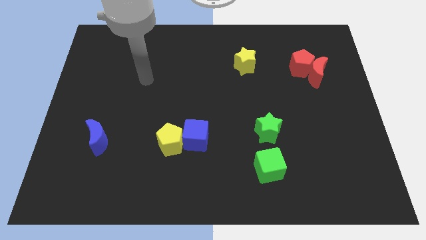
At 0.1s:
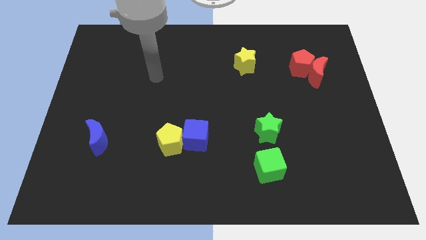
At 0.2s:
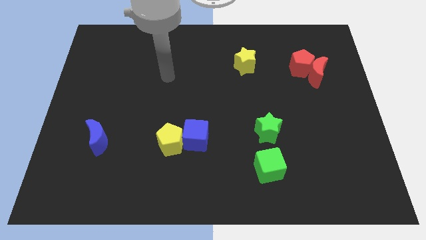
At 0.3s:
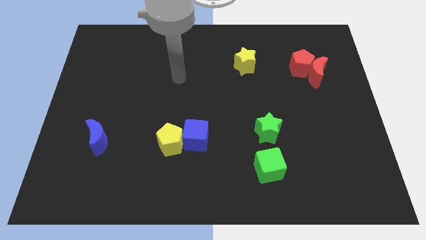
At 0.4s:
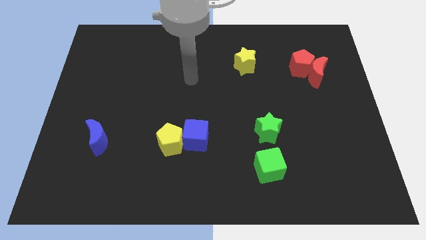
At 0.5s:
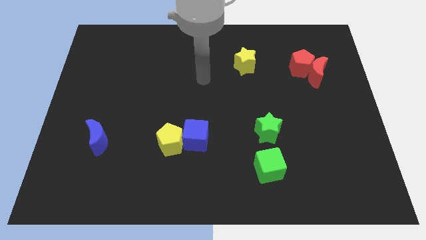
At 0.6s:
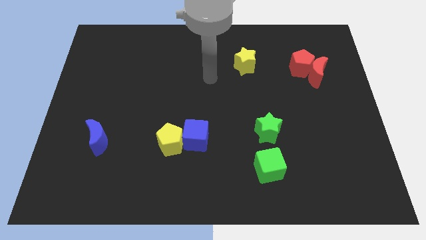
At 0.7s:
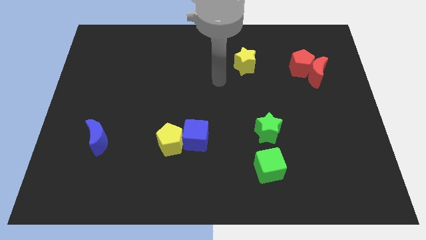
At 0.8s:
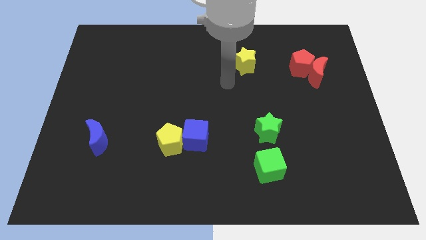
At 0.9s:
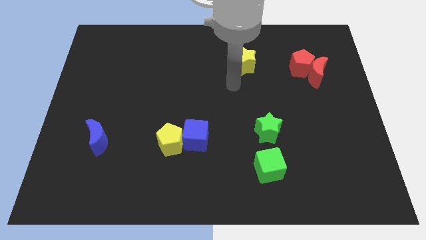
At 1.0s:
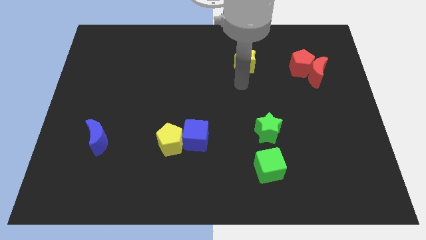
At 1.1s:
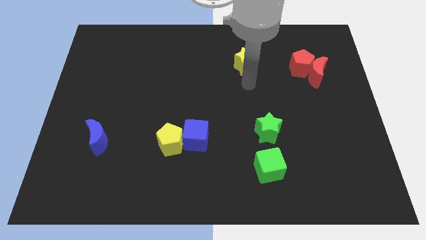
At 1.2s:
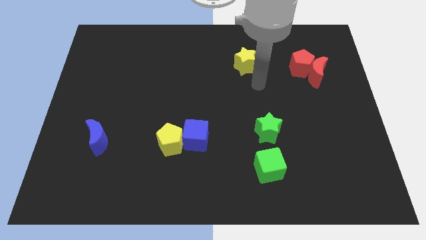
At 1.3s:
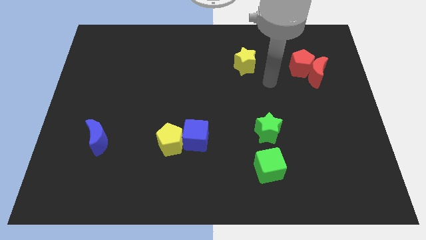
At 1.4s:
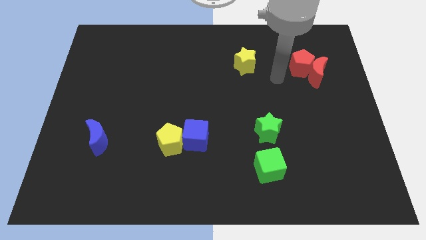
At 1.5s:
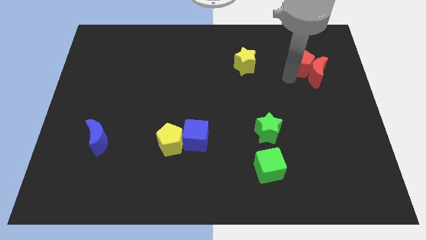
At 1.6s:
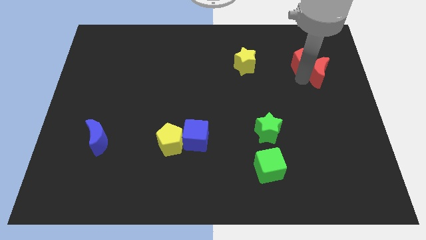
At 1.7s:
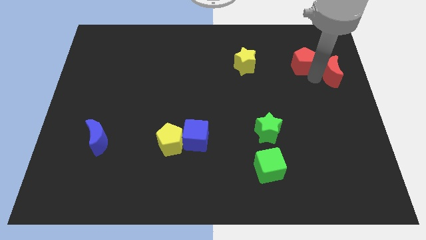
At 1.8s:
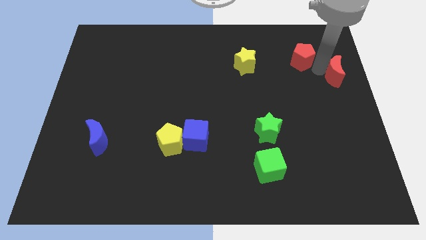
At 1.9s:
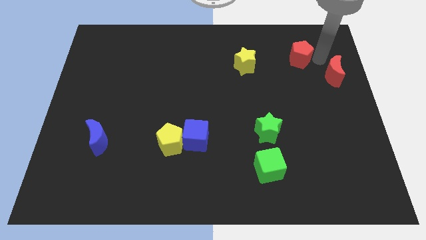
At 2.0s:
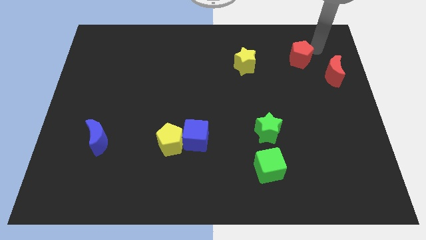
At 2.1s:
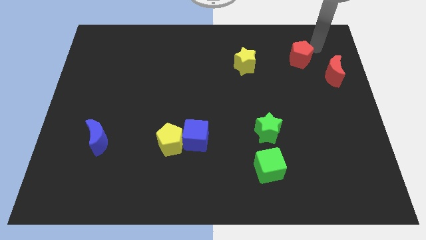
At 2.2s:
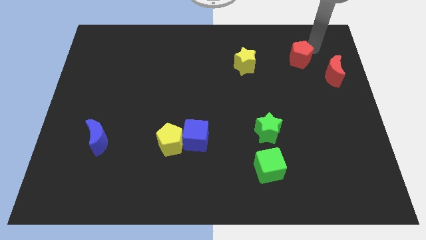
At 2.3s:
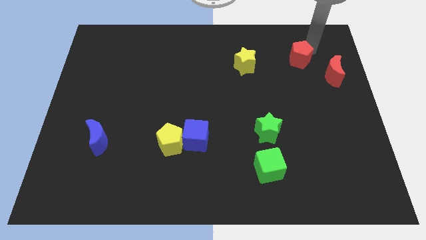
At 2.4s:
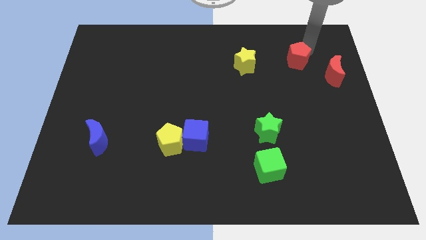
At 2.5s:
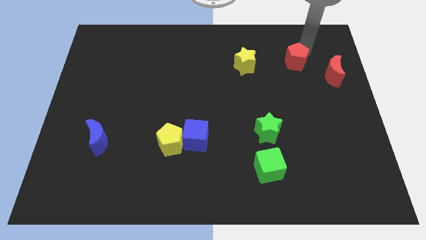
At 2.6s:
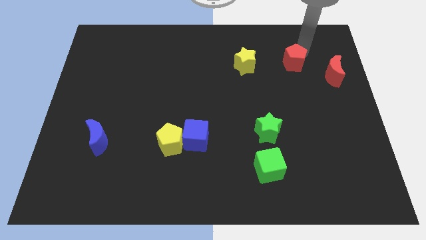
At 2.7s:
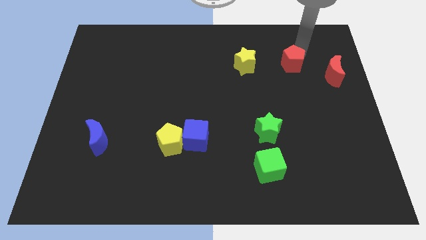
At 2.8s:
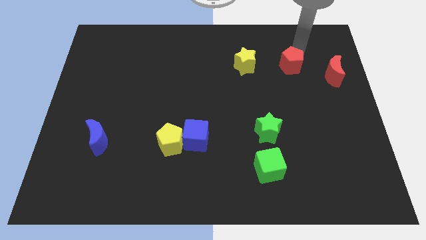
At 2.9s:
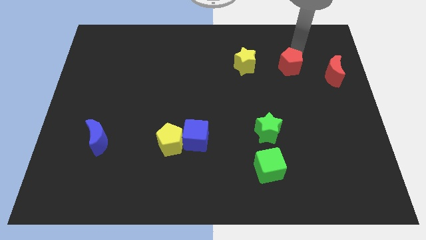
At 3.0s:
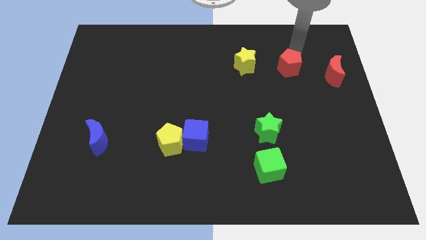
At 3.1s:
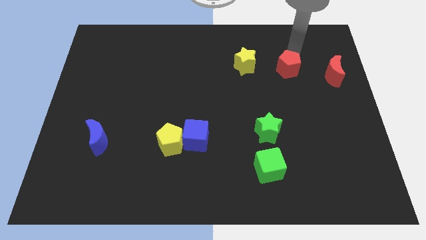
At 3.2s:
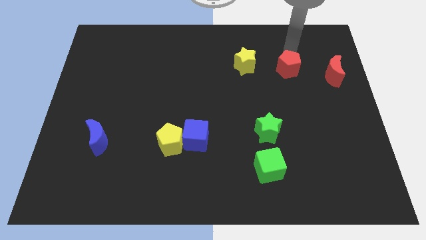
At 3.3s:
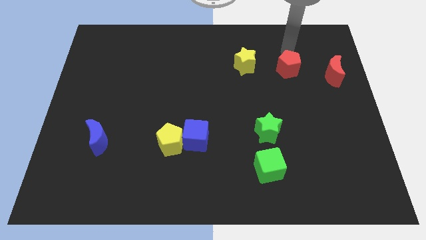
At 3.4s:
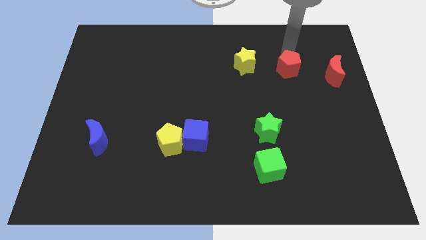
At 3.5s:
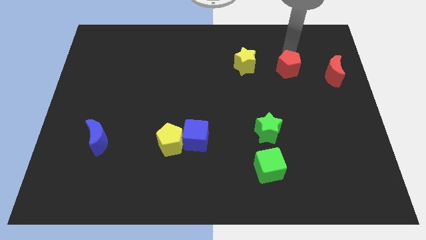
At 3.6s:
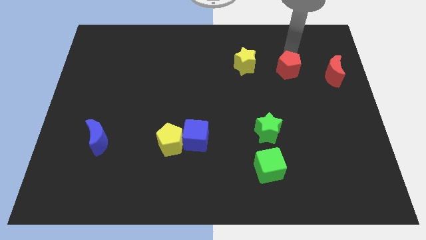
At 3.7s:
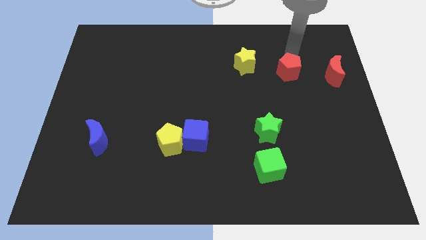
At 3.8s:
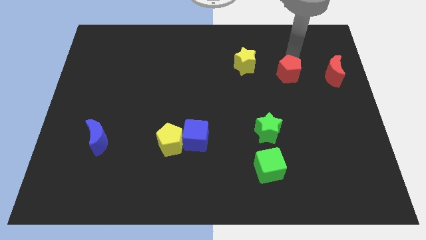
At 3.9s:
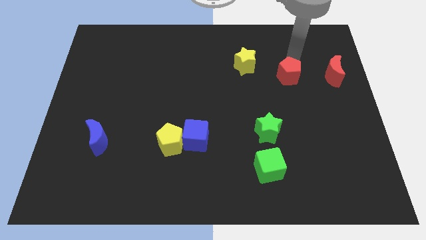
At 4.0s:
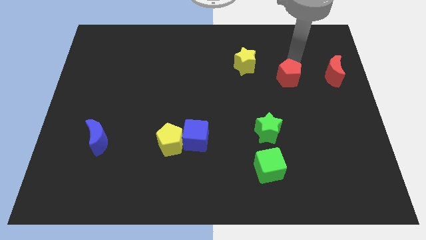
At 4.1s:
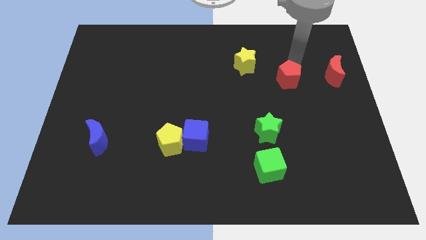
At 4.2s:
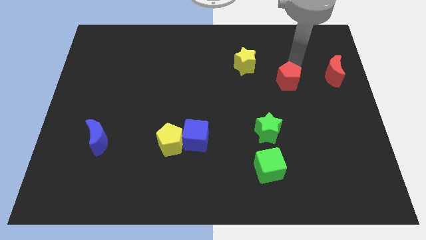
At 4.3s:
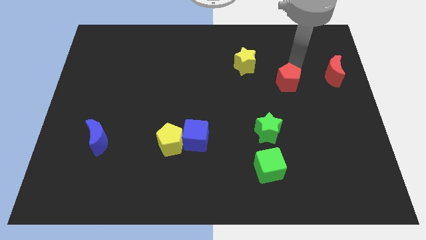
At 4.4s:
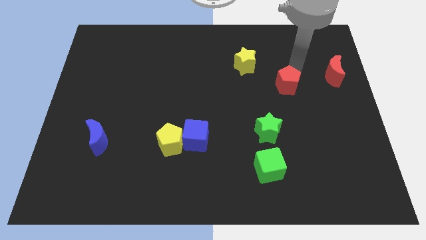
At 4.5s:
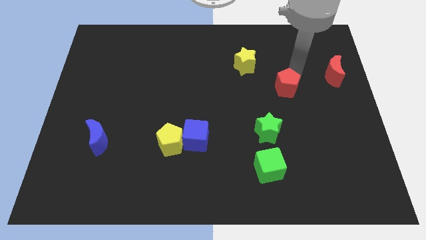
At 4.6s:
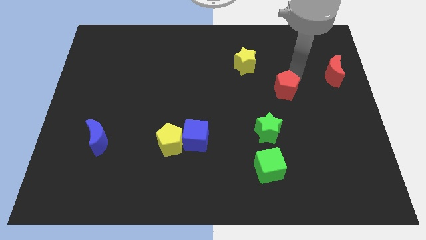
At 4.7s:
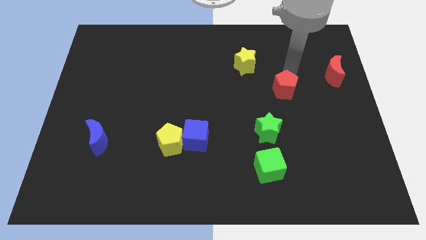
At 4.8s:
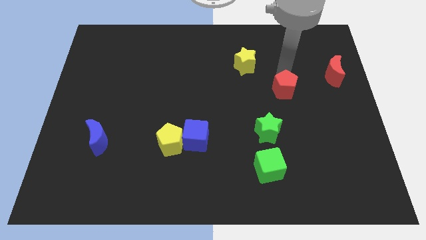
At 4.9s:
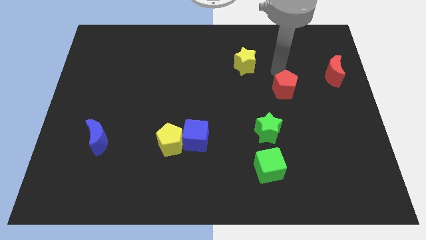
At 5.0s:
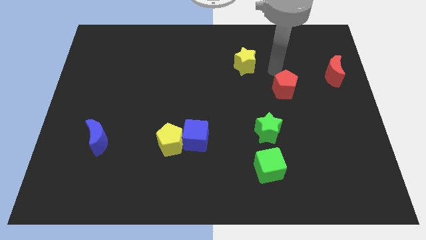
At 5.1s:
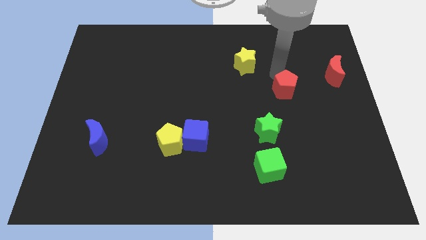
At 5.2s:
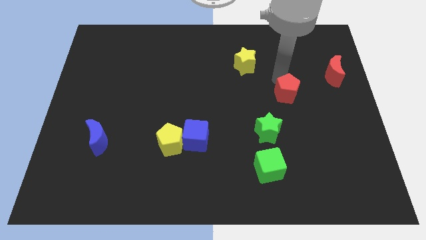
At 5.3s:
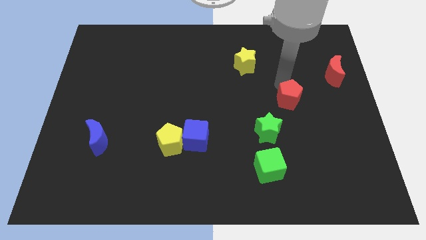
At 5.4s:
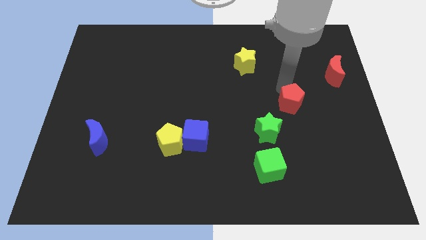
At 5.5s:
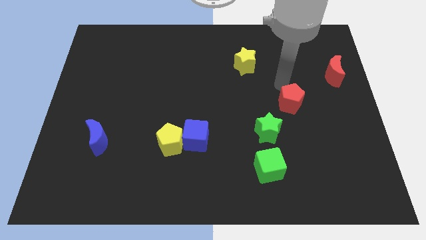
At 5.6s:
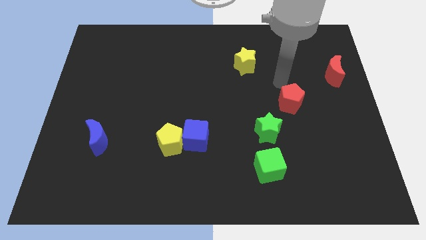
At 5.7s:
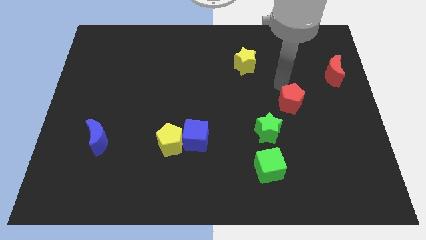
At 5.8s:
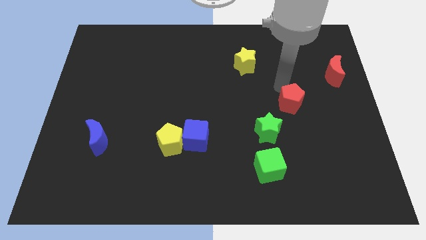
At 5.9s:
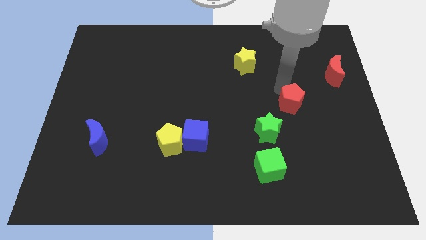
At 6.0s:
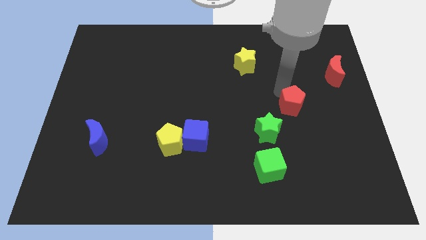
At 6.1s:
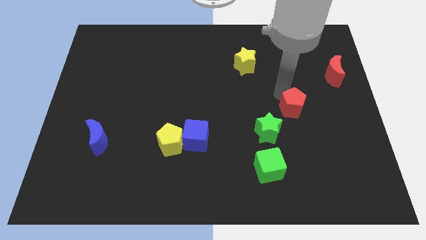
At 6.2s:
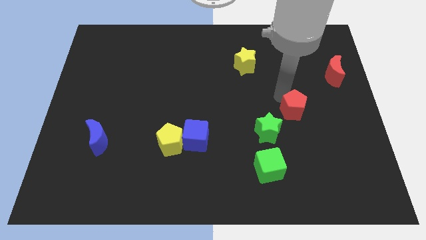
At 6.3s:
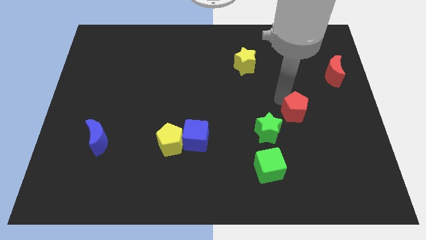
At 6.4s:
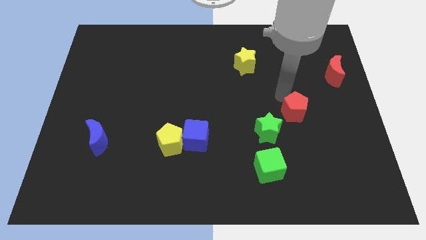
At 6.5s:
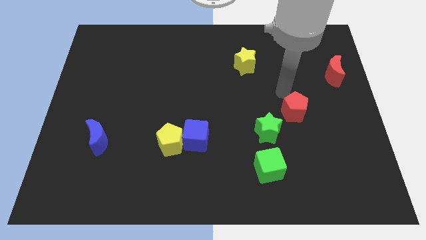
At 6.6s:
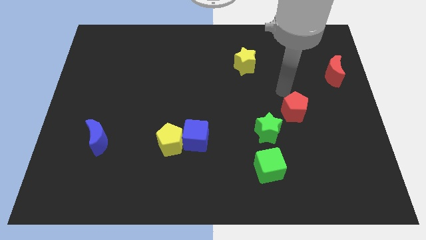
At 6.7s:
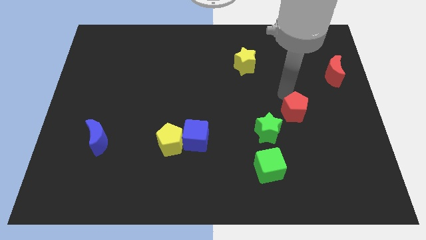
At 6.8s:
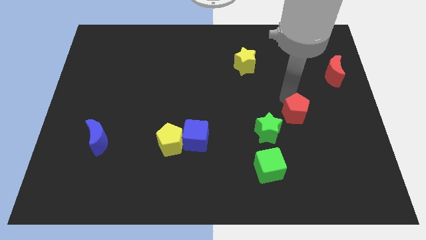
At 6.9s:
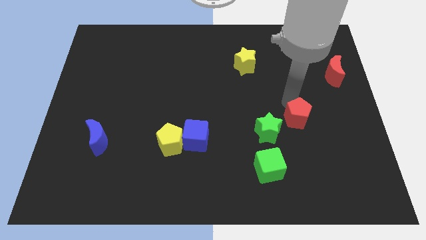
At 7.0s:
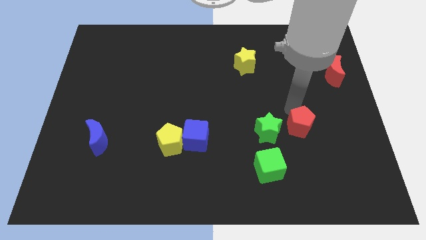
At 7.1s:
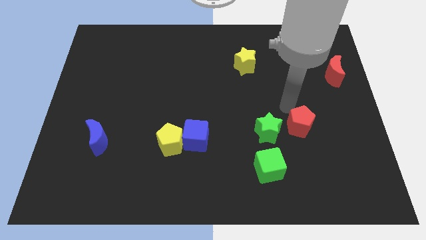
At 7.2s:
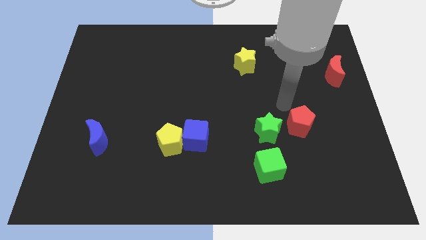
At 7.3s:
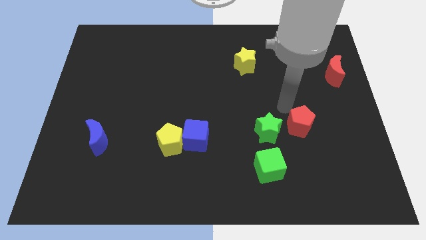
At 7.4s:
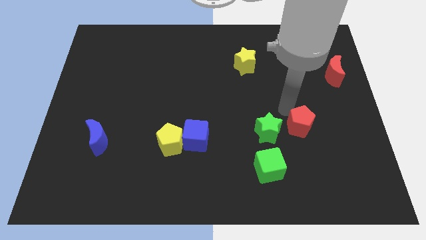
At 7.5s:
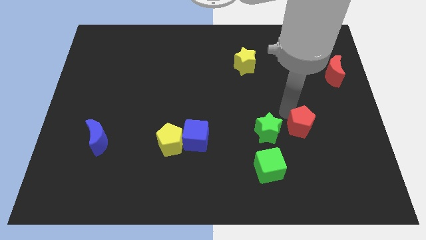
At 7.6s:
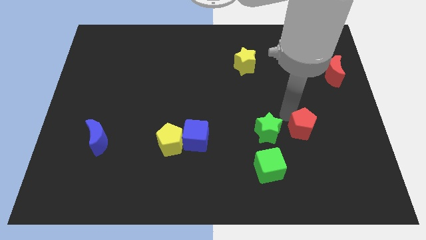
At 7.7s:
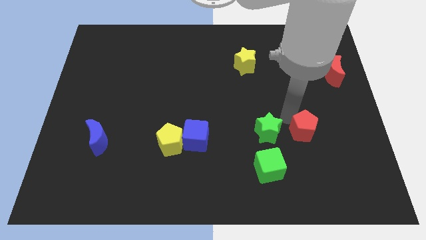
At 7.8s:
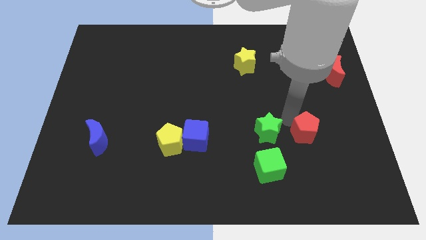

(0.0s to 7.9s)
slide the red pentagon downwards

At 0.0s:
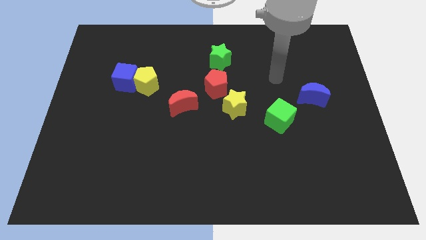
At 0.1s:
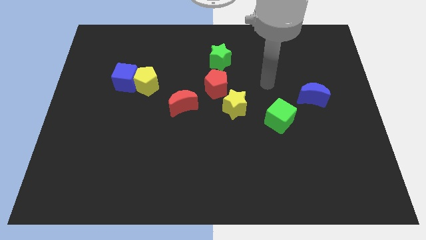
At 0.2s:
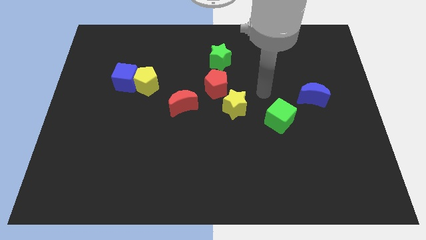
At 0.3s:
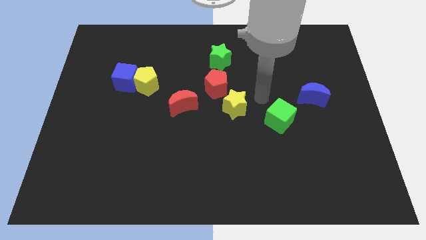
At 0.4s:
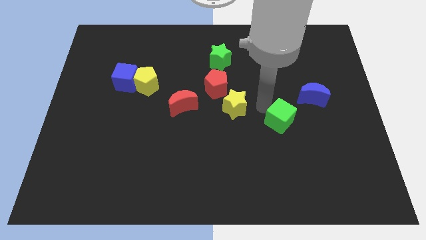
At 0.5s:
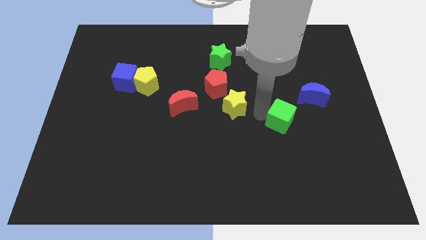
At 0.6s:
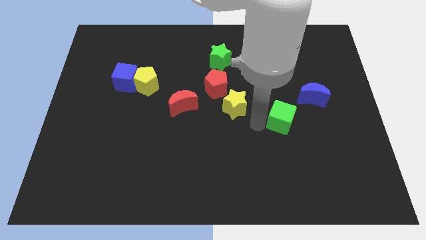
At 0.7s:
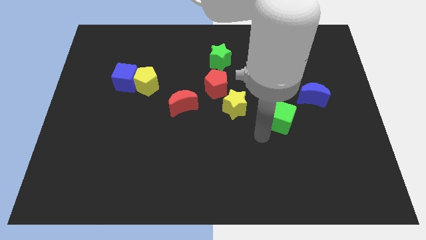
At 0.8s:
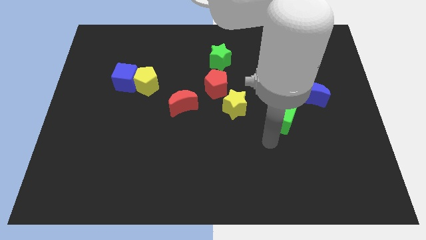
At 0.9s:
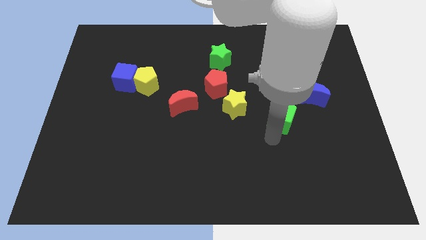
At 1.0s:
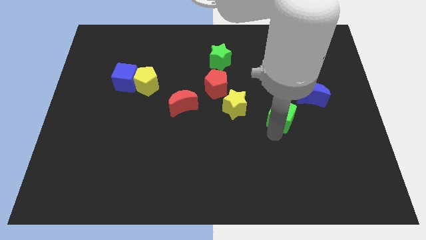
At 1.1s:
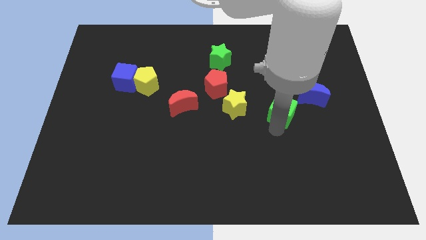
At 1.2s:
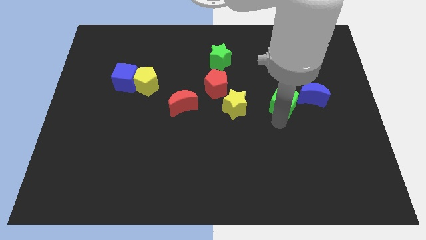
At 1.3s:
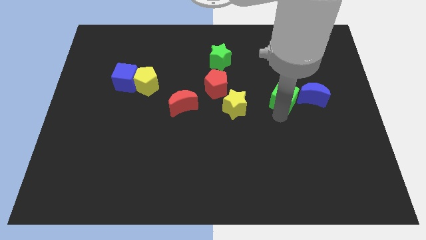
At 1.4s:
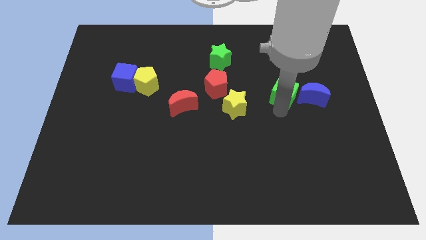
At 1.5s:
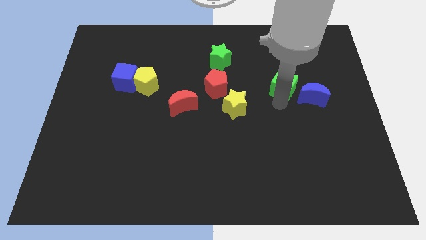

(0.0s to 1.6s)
slightly slide the green cube diagonally up and to the right
